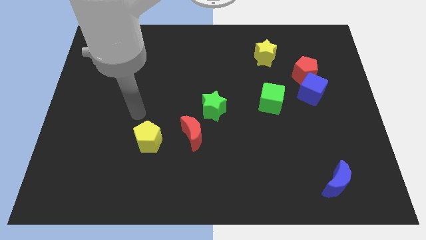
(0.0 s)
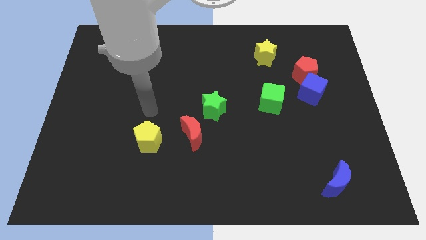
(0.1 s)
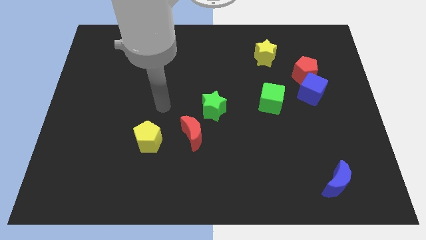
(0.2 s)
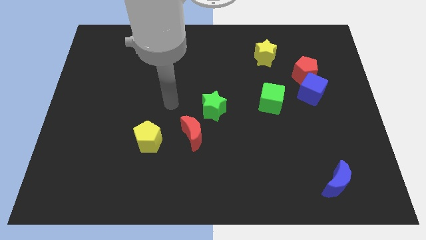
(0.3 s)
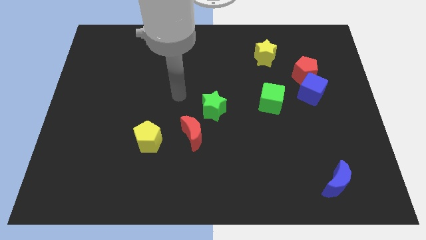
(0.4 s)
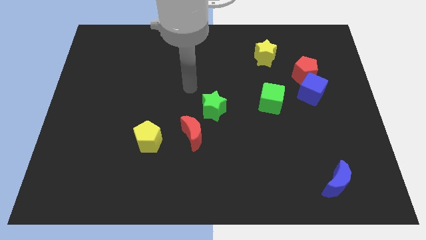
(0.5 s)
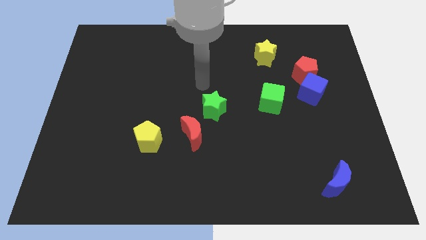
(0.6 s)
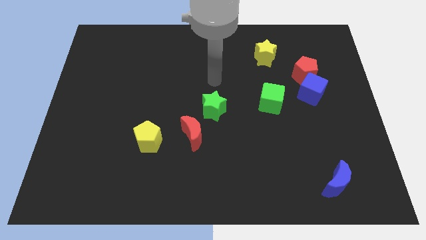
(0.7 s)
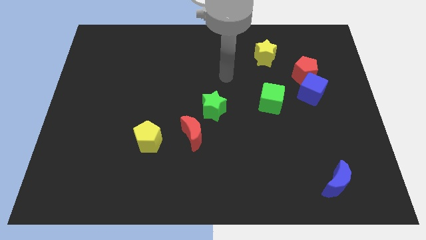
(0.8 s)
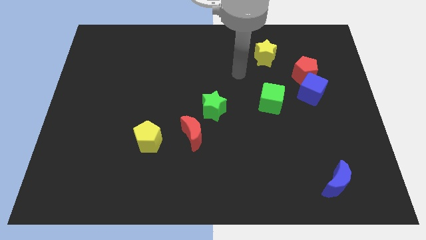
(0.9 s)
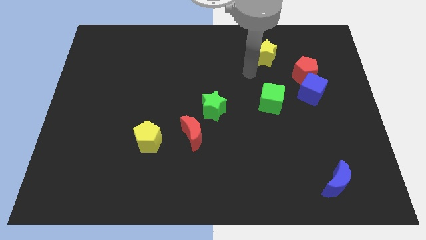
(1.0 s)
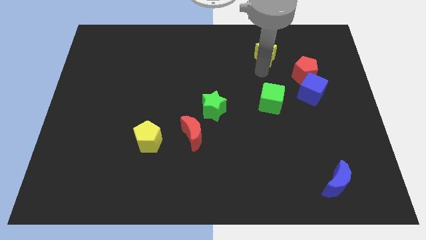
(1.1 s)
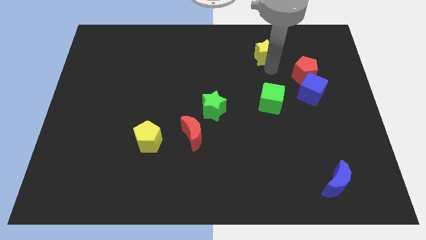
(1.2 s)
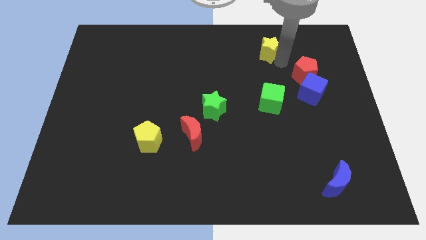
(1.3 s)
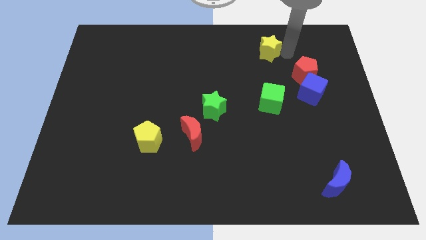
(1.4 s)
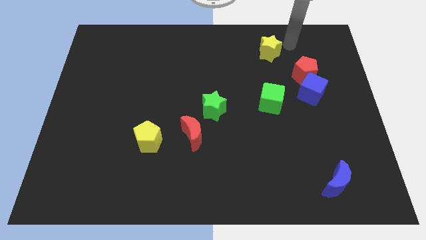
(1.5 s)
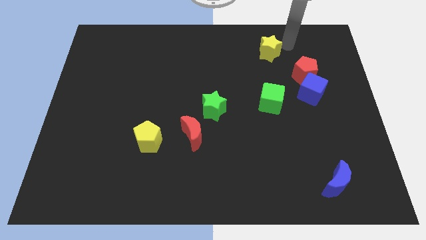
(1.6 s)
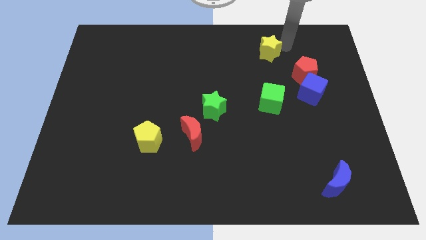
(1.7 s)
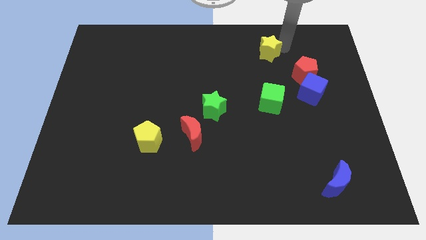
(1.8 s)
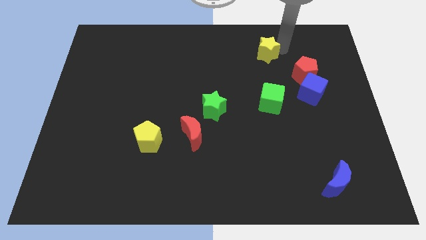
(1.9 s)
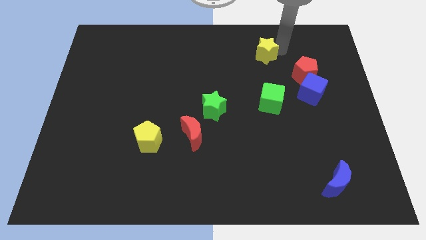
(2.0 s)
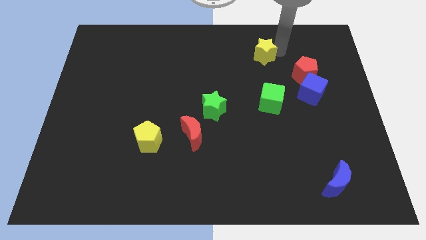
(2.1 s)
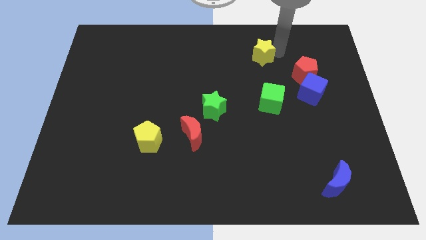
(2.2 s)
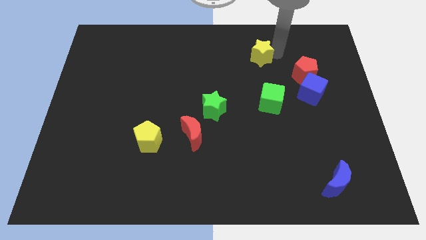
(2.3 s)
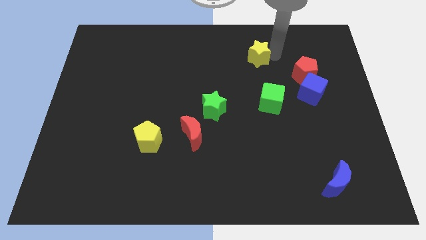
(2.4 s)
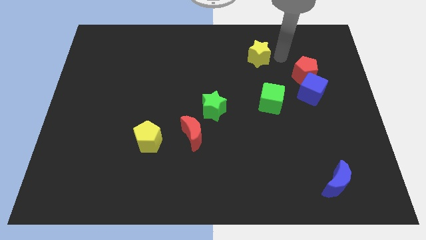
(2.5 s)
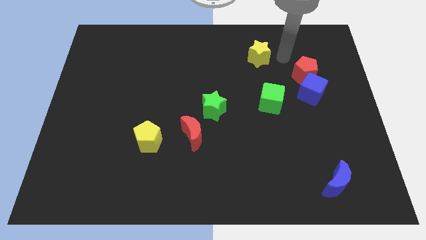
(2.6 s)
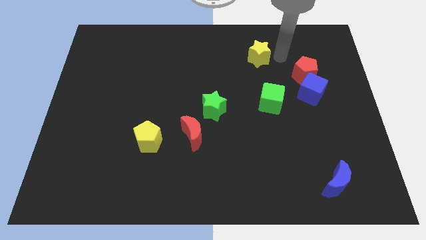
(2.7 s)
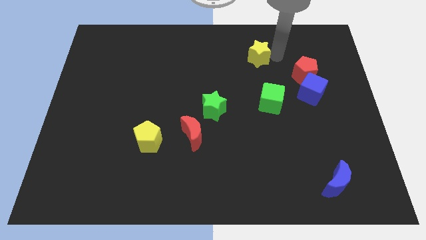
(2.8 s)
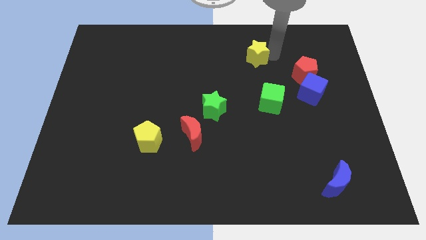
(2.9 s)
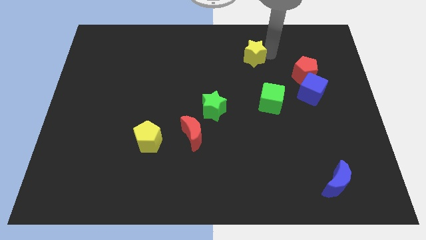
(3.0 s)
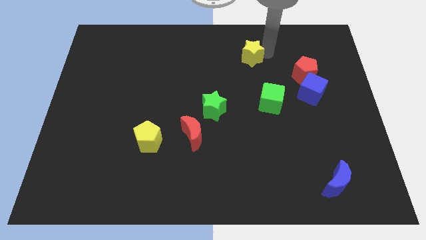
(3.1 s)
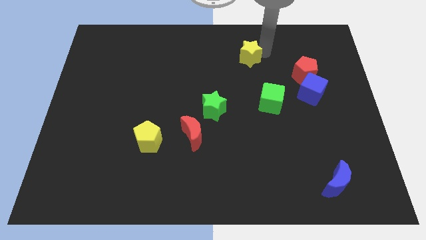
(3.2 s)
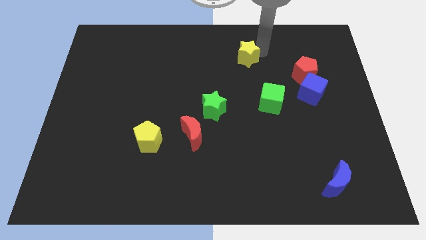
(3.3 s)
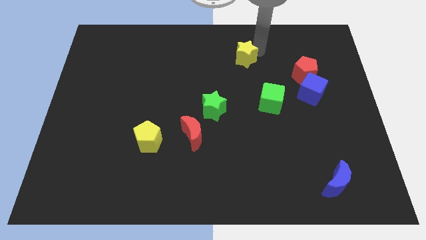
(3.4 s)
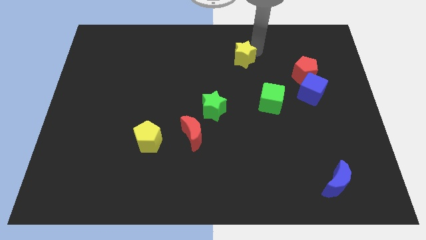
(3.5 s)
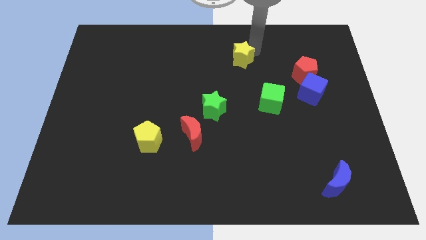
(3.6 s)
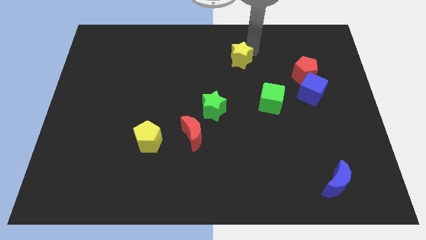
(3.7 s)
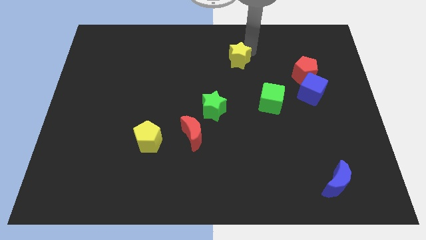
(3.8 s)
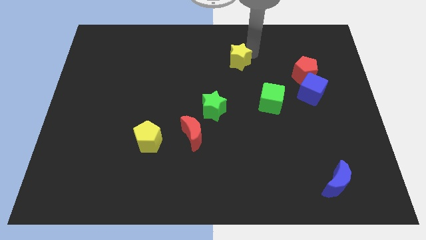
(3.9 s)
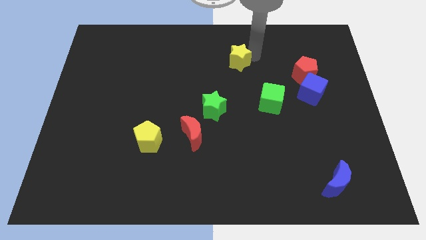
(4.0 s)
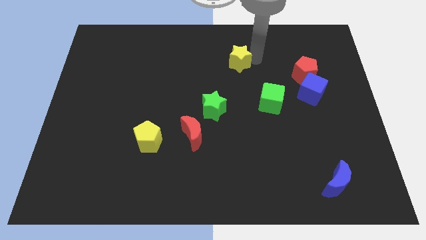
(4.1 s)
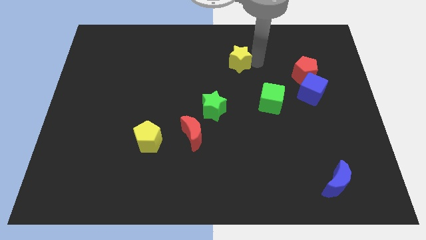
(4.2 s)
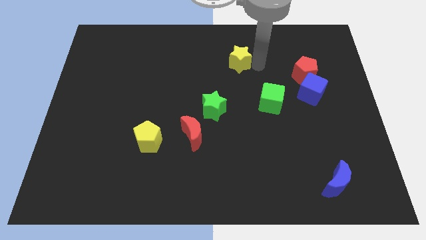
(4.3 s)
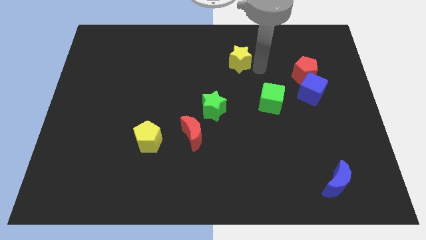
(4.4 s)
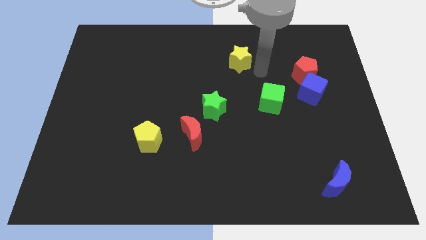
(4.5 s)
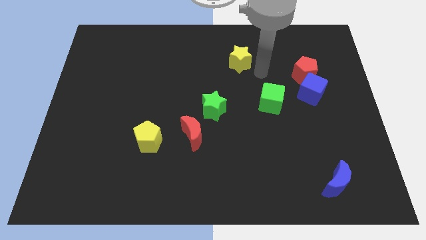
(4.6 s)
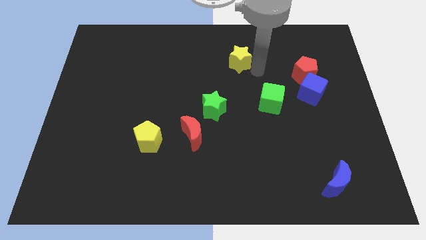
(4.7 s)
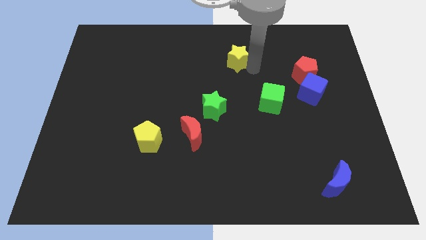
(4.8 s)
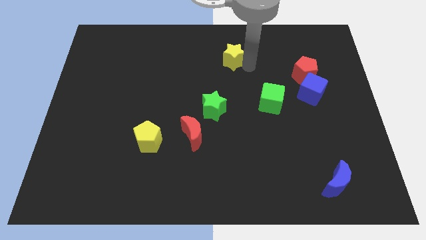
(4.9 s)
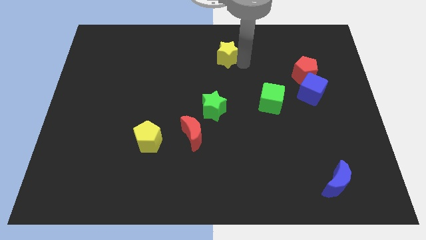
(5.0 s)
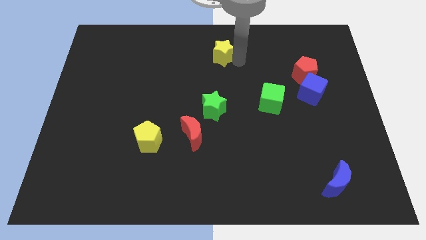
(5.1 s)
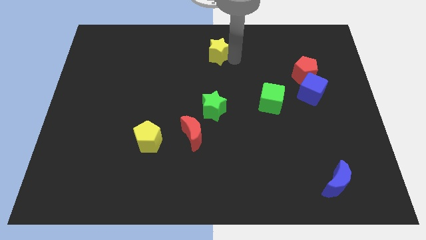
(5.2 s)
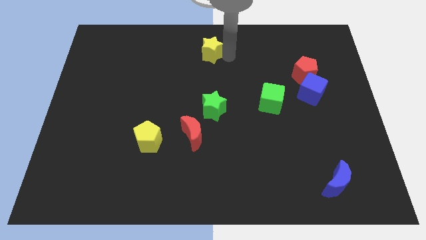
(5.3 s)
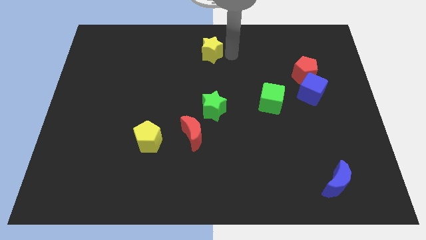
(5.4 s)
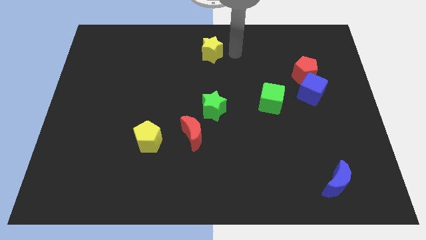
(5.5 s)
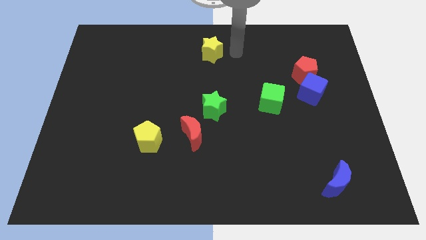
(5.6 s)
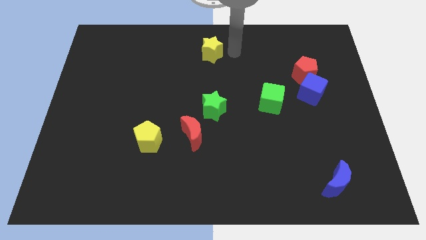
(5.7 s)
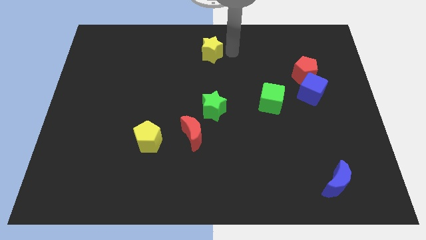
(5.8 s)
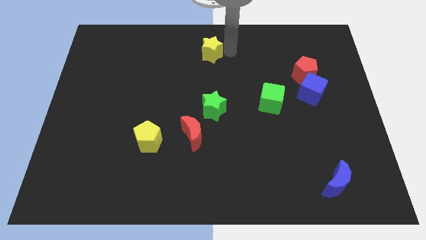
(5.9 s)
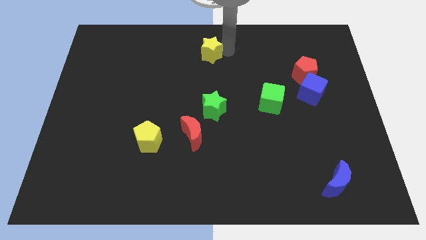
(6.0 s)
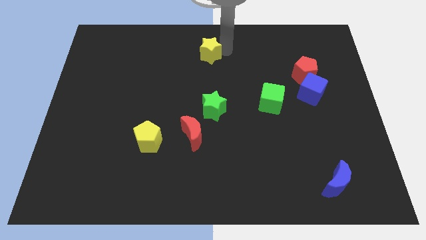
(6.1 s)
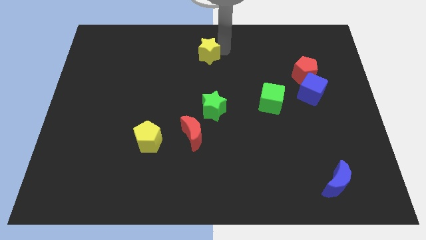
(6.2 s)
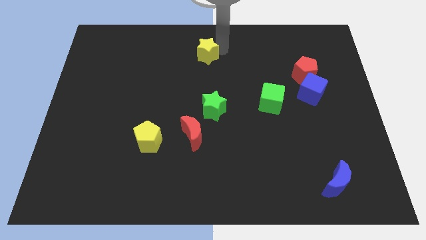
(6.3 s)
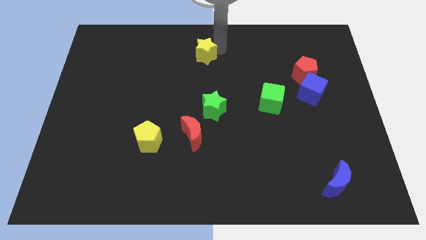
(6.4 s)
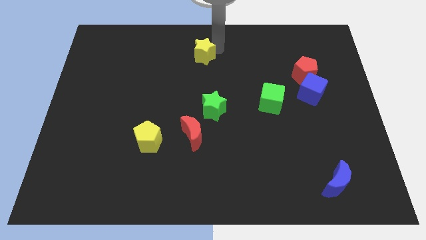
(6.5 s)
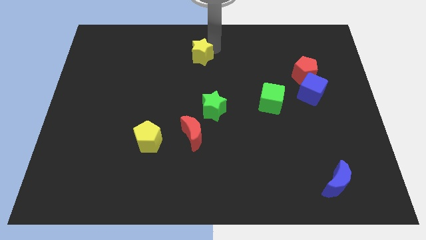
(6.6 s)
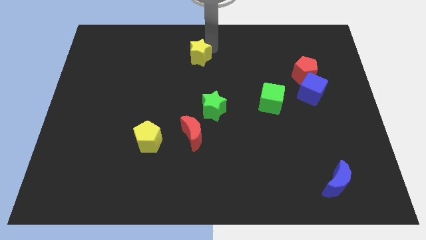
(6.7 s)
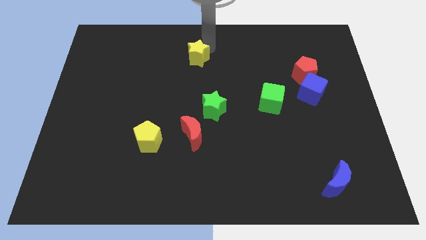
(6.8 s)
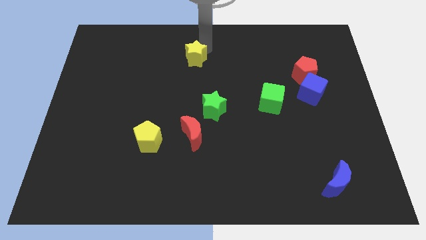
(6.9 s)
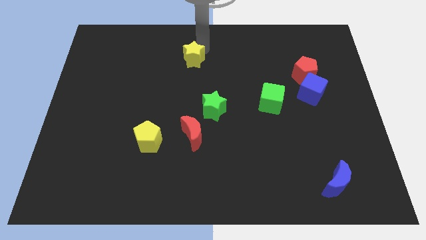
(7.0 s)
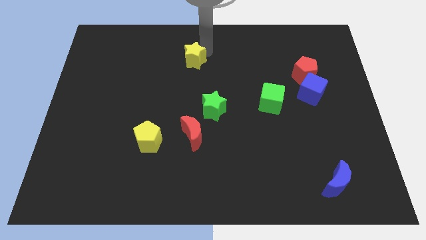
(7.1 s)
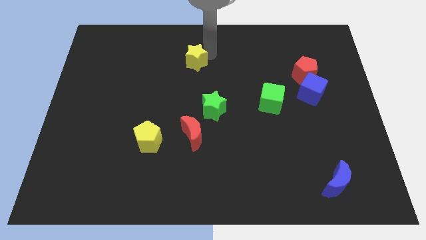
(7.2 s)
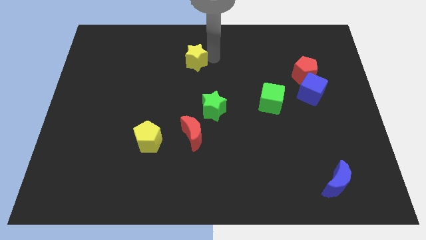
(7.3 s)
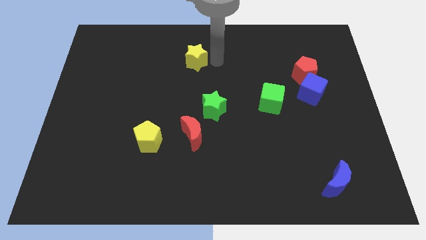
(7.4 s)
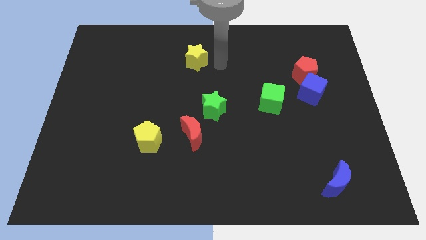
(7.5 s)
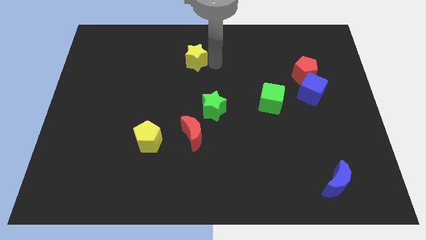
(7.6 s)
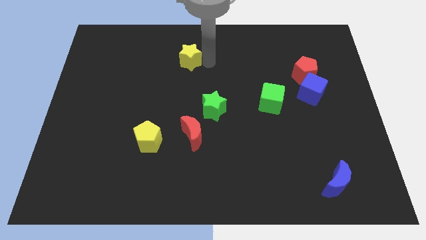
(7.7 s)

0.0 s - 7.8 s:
push the yellow star to the left

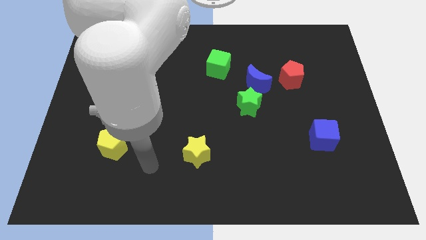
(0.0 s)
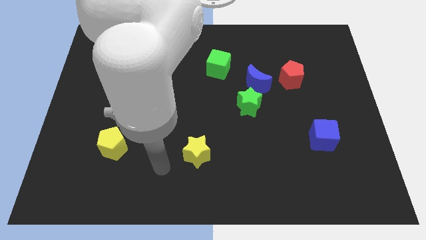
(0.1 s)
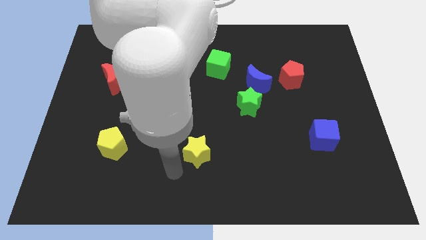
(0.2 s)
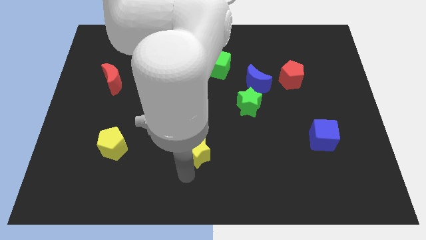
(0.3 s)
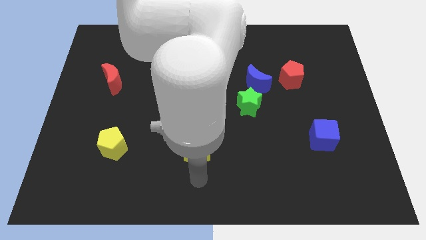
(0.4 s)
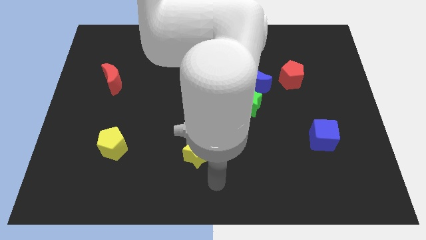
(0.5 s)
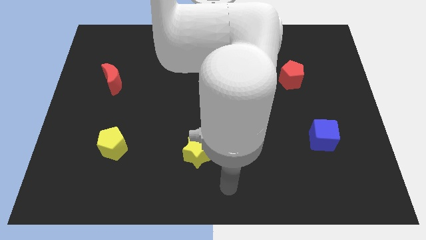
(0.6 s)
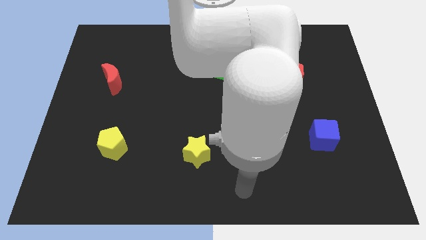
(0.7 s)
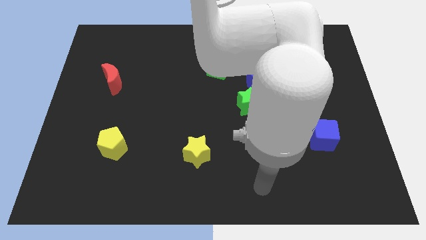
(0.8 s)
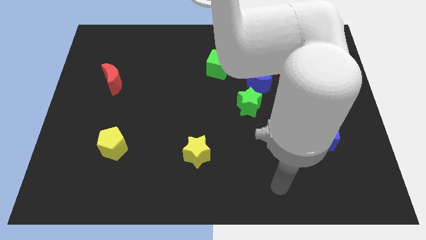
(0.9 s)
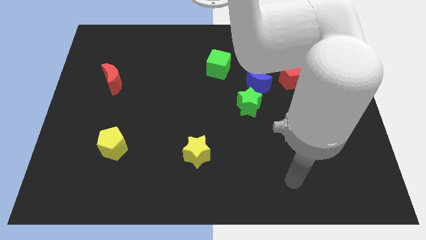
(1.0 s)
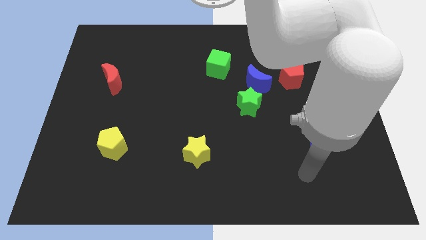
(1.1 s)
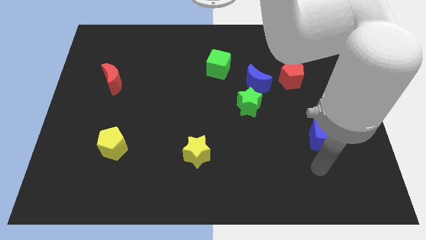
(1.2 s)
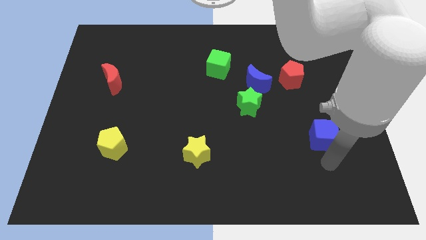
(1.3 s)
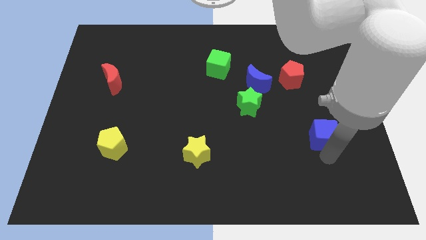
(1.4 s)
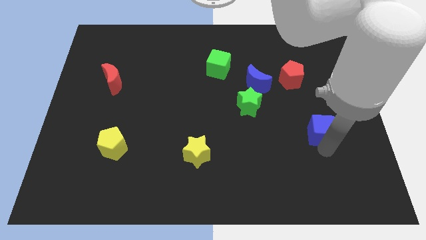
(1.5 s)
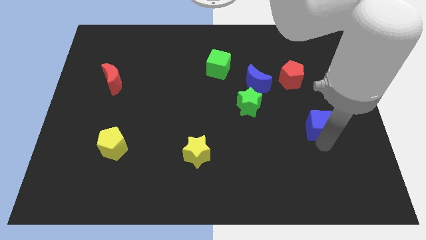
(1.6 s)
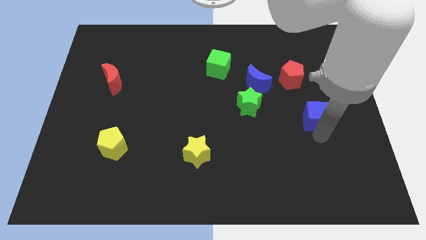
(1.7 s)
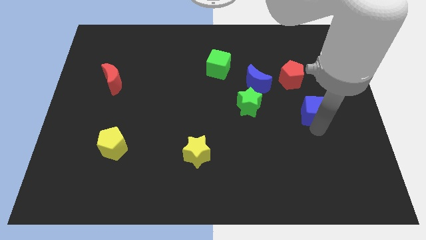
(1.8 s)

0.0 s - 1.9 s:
slide the blue cube a little upwards
